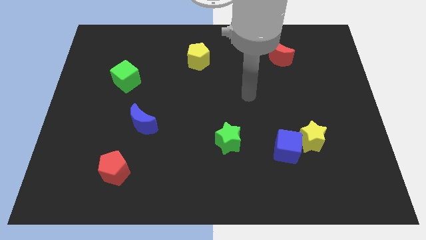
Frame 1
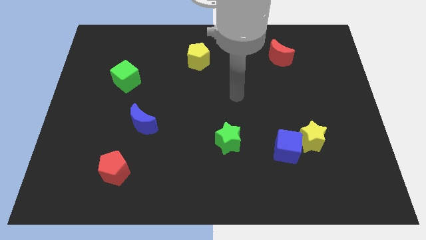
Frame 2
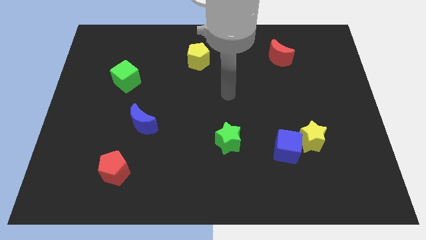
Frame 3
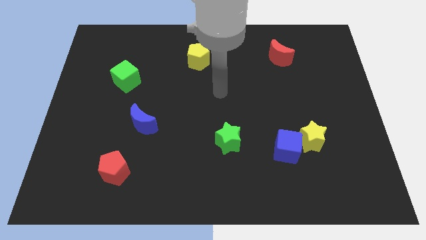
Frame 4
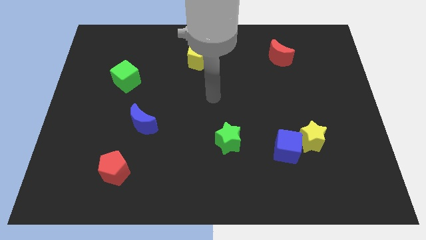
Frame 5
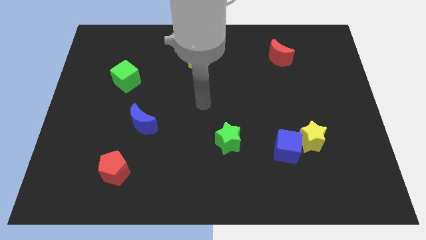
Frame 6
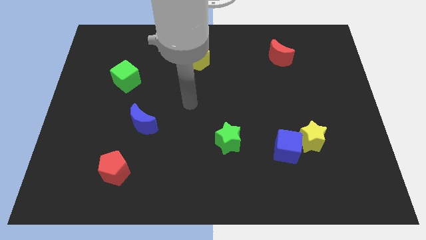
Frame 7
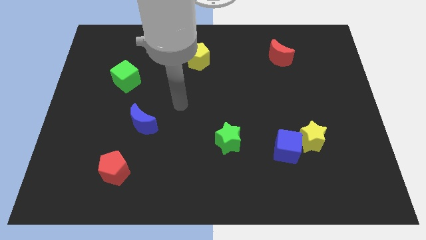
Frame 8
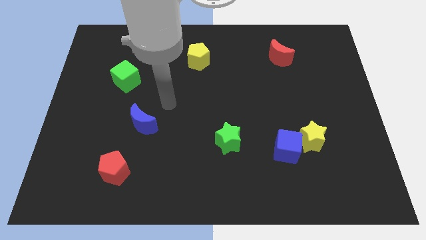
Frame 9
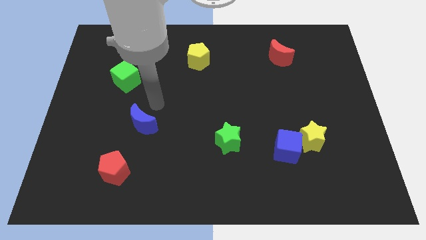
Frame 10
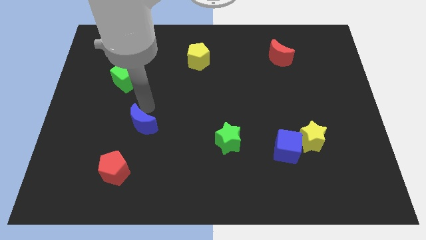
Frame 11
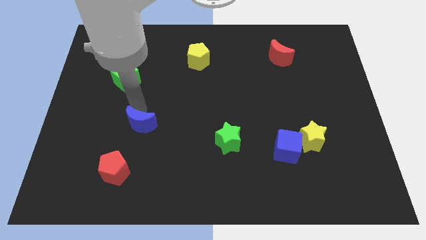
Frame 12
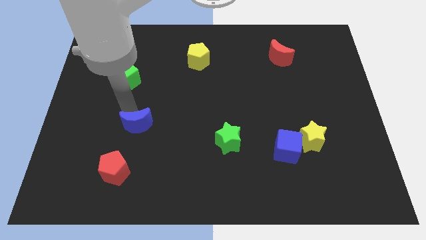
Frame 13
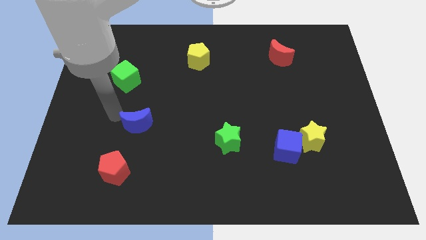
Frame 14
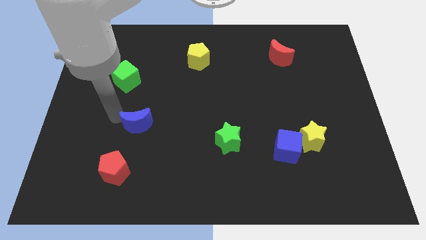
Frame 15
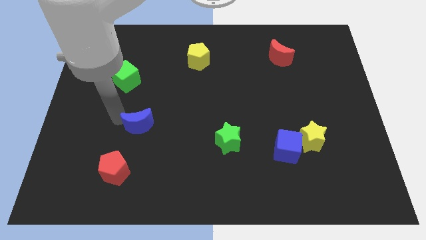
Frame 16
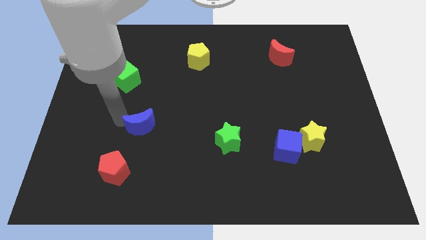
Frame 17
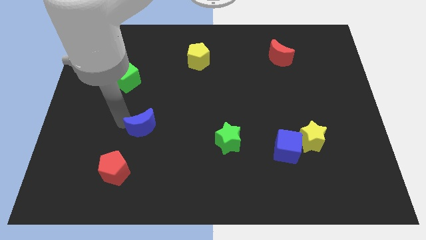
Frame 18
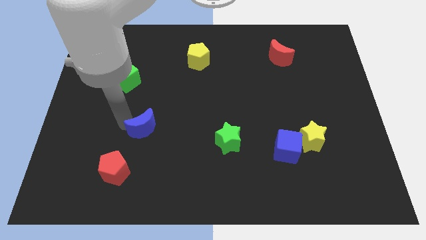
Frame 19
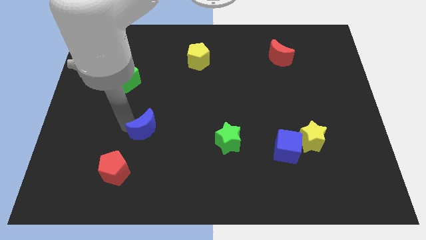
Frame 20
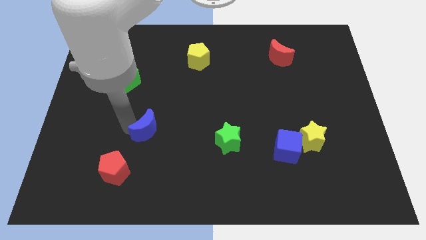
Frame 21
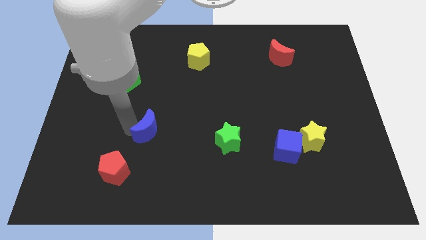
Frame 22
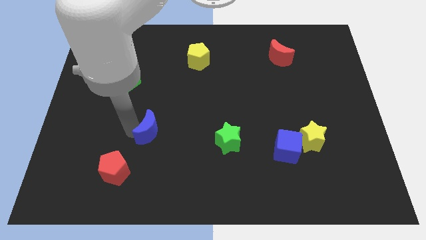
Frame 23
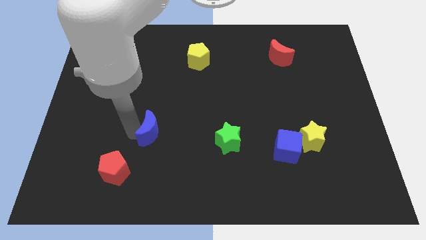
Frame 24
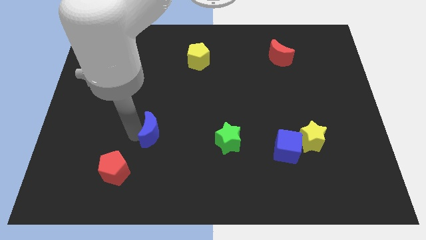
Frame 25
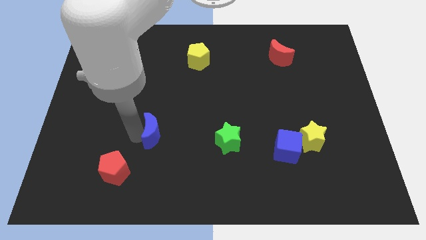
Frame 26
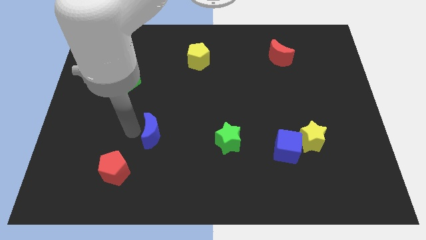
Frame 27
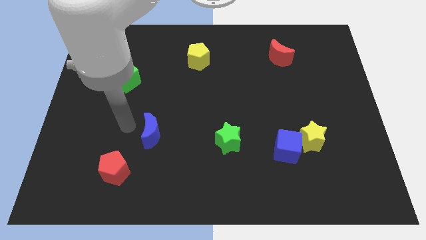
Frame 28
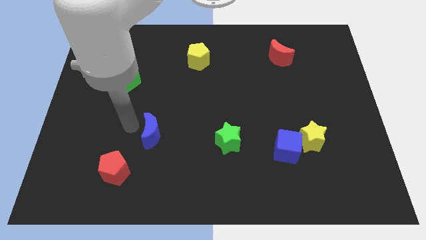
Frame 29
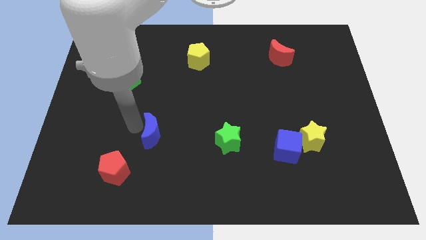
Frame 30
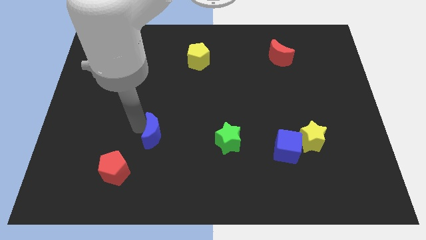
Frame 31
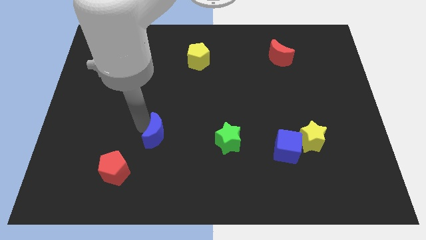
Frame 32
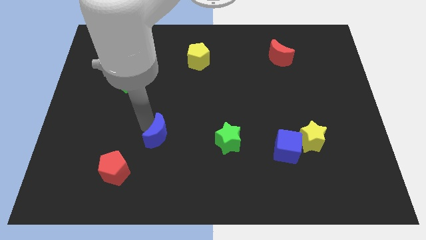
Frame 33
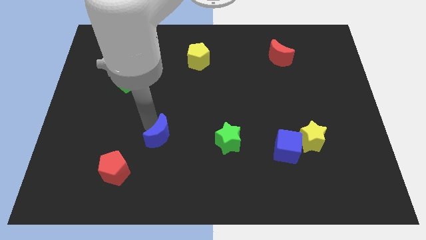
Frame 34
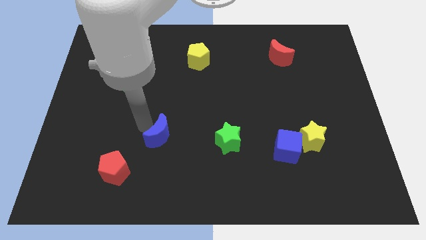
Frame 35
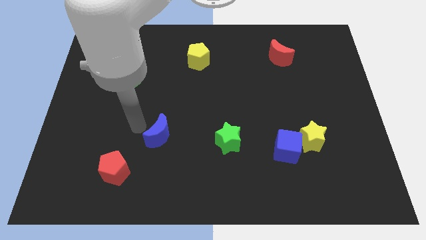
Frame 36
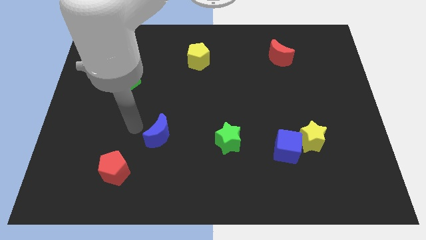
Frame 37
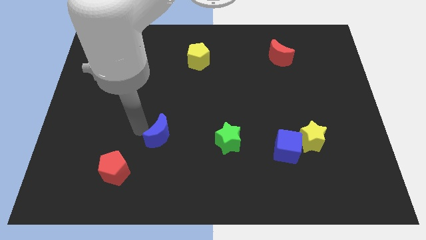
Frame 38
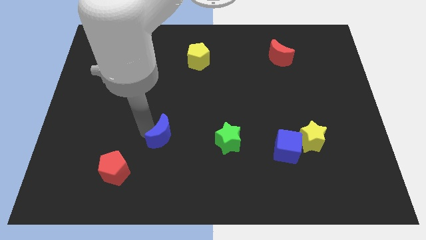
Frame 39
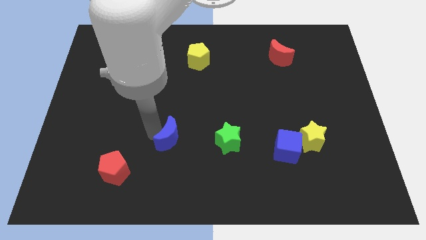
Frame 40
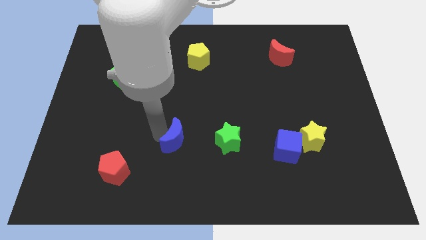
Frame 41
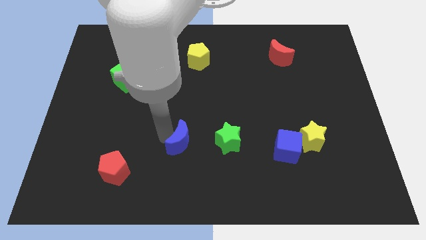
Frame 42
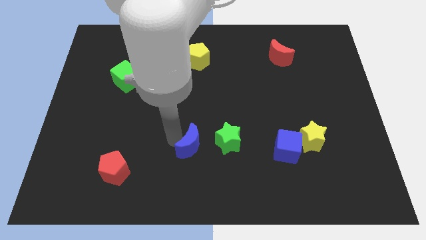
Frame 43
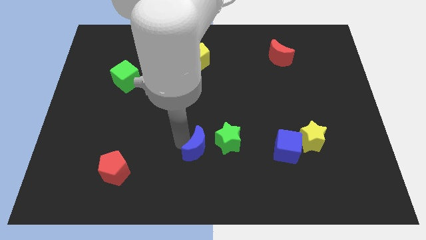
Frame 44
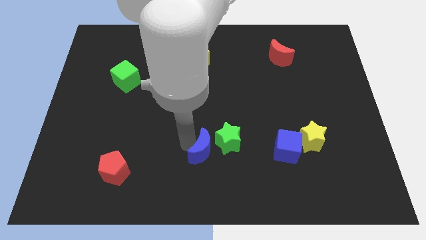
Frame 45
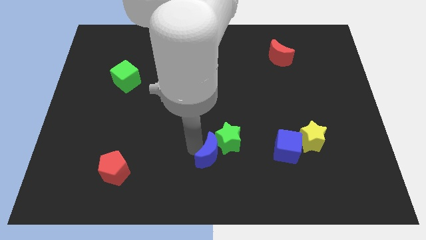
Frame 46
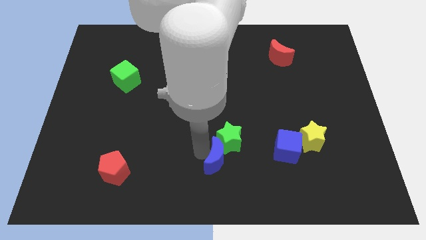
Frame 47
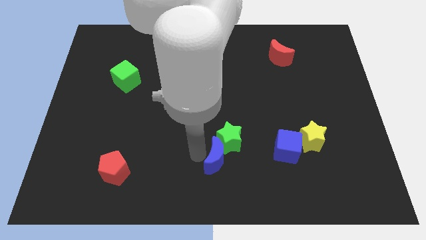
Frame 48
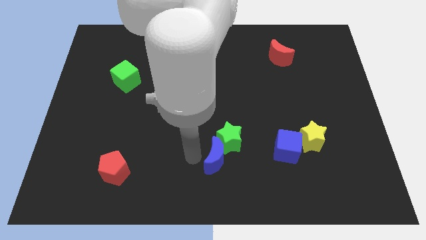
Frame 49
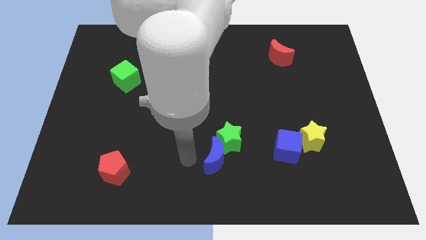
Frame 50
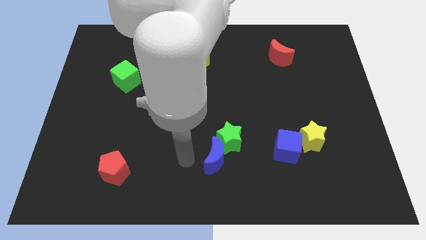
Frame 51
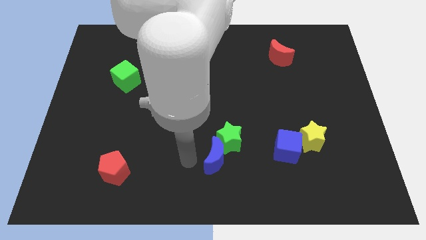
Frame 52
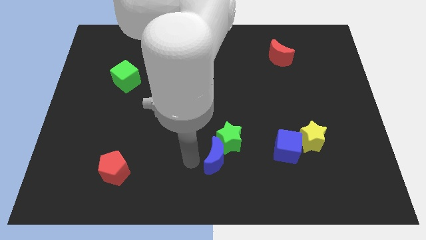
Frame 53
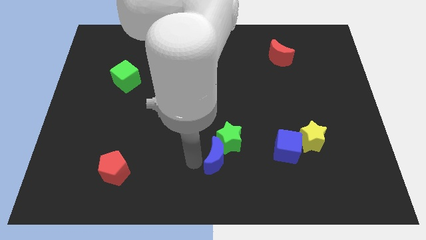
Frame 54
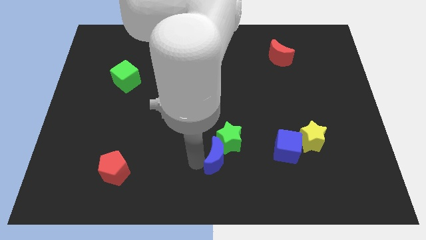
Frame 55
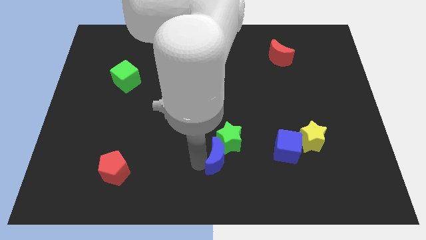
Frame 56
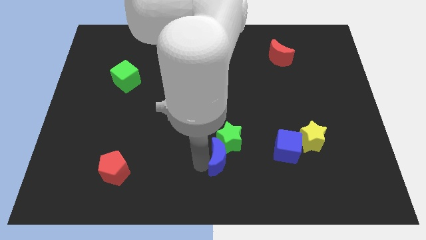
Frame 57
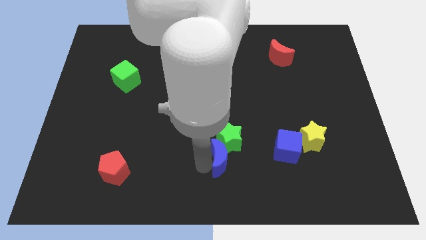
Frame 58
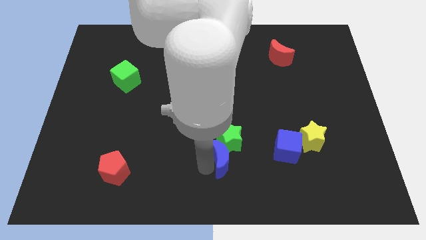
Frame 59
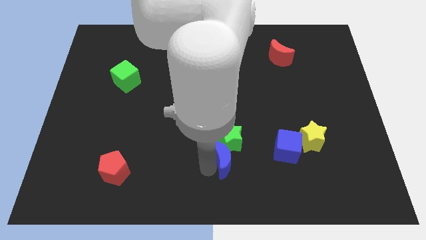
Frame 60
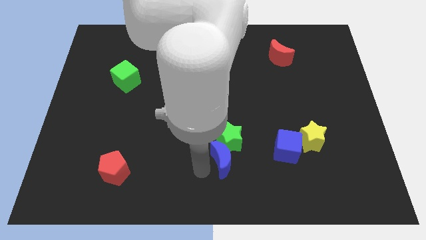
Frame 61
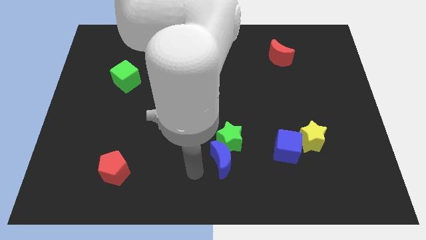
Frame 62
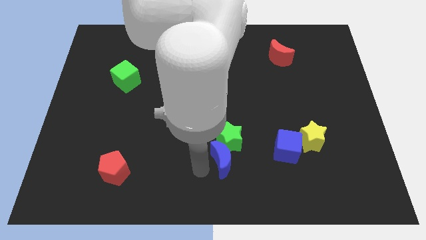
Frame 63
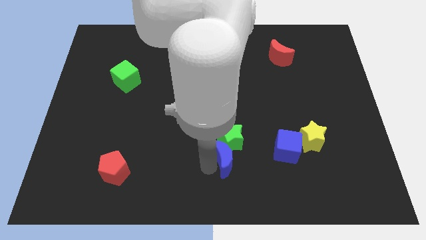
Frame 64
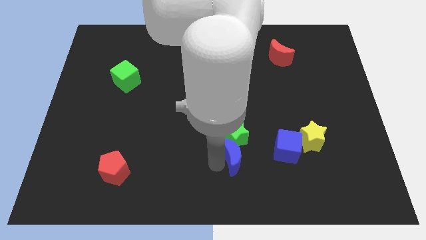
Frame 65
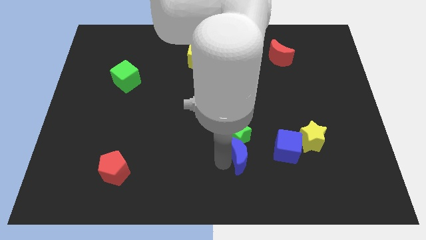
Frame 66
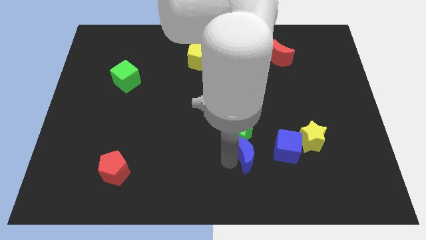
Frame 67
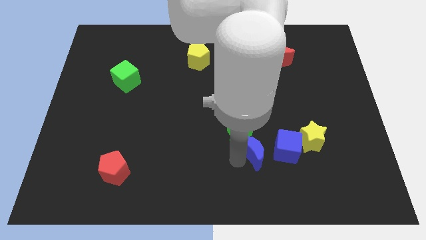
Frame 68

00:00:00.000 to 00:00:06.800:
move the blue moon just left of the yellow star

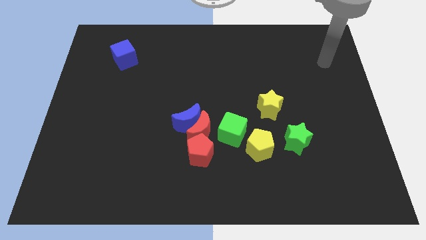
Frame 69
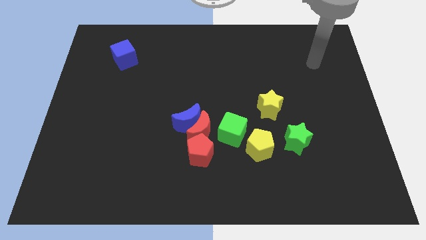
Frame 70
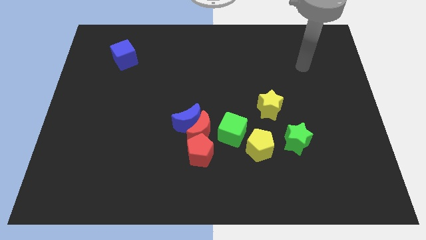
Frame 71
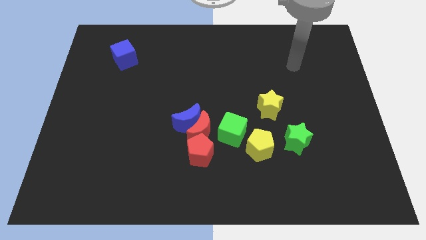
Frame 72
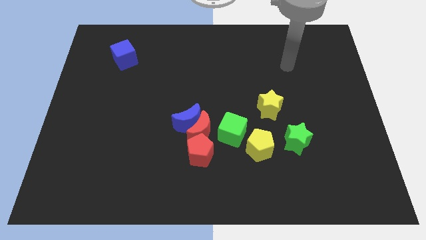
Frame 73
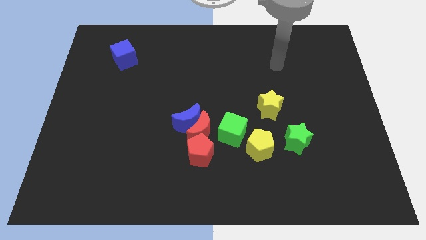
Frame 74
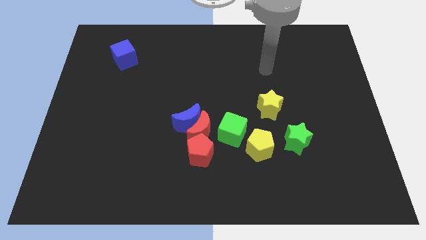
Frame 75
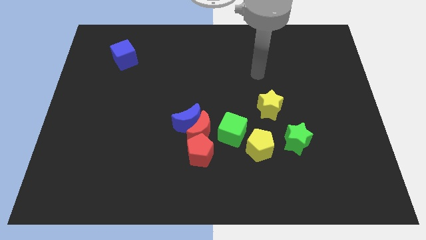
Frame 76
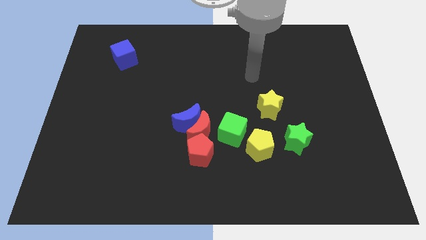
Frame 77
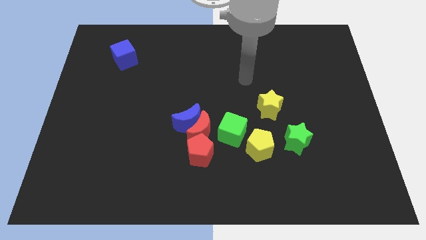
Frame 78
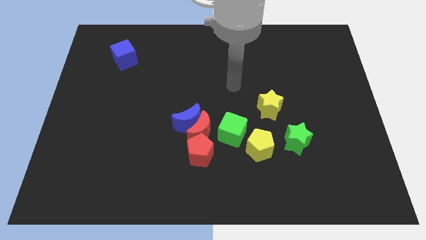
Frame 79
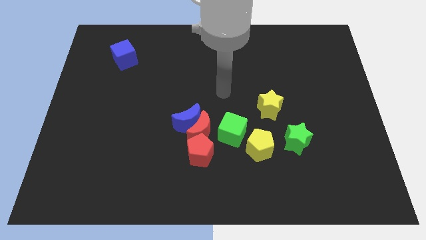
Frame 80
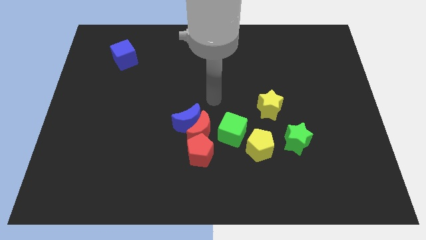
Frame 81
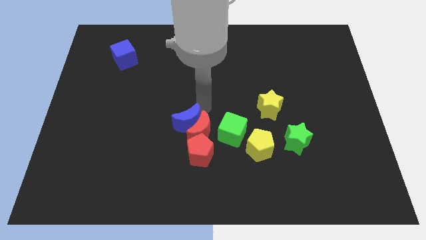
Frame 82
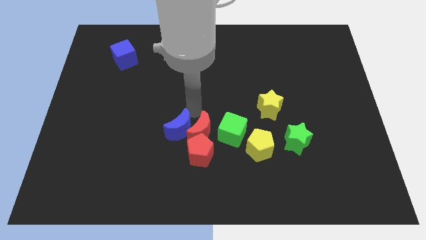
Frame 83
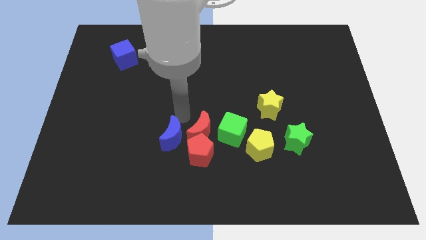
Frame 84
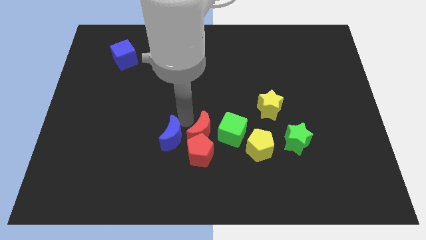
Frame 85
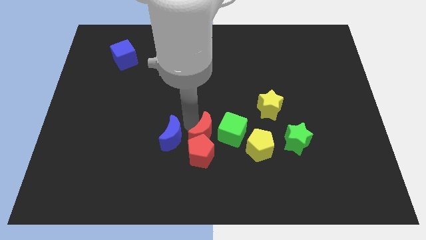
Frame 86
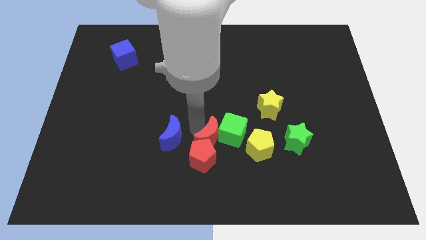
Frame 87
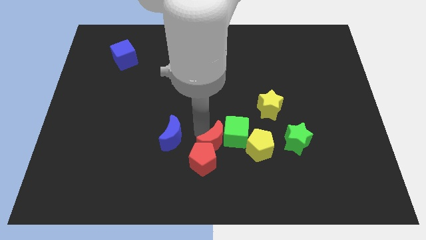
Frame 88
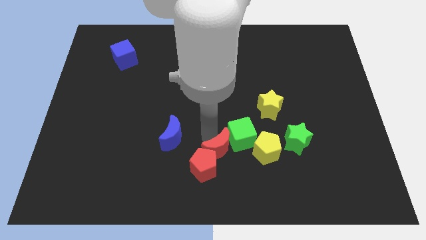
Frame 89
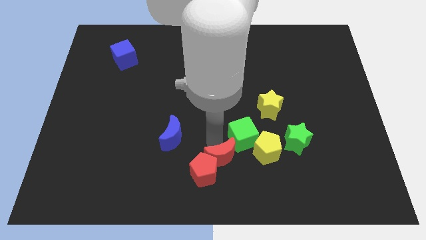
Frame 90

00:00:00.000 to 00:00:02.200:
put the red moon to the bottom of the green cube
